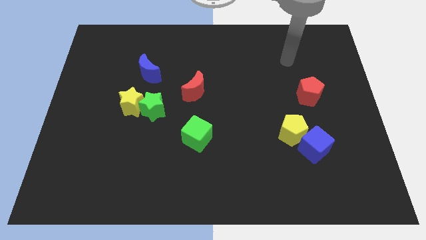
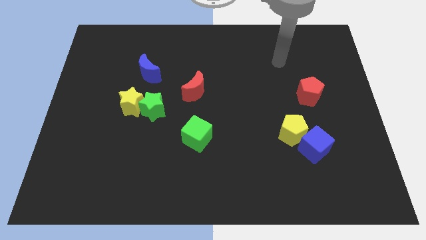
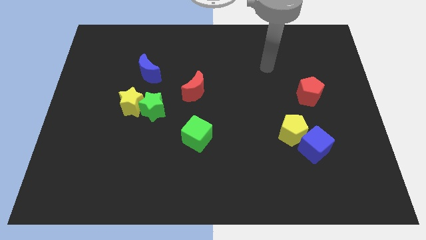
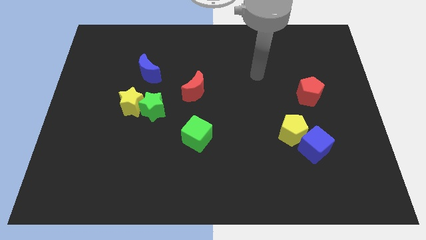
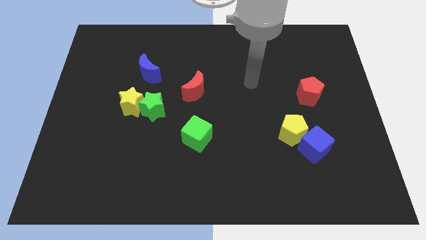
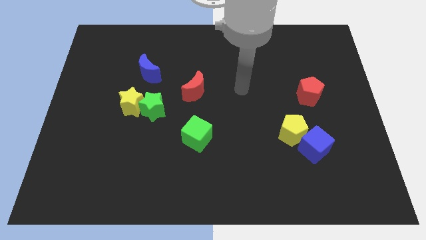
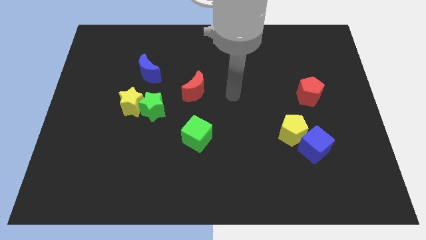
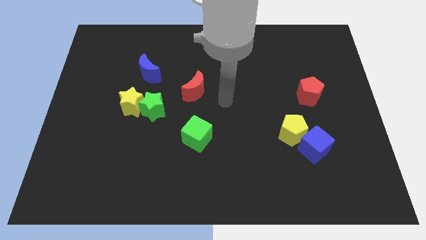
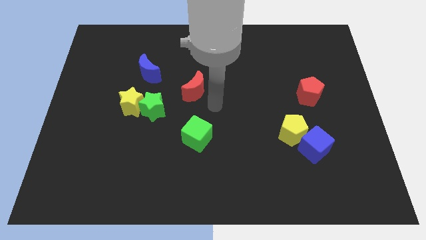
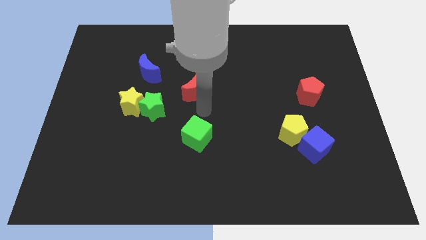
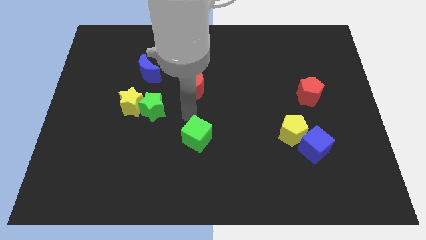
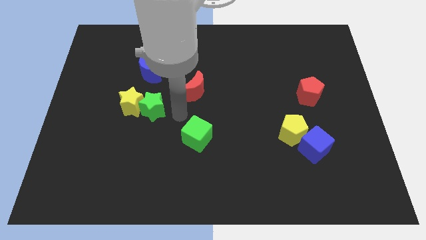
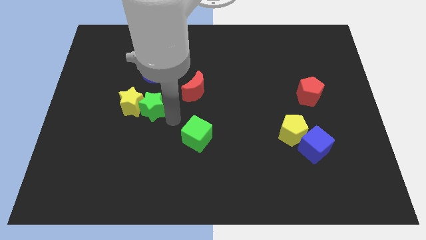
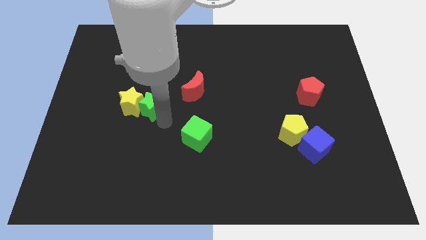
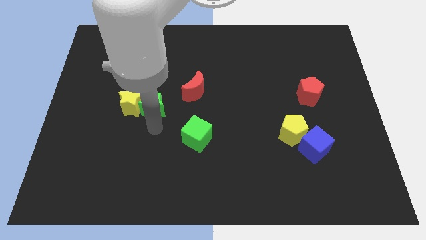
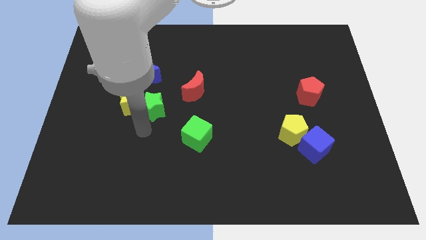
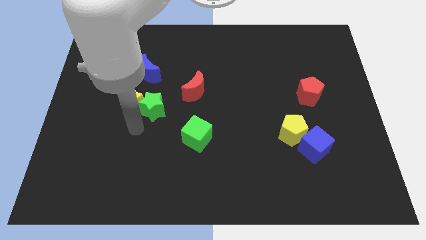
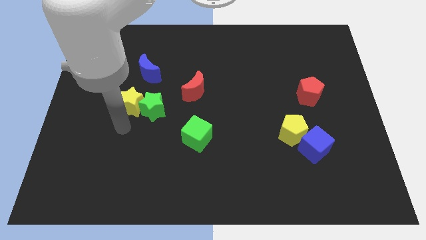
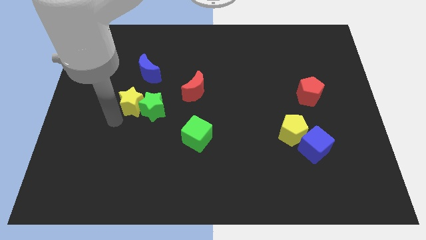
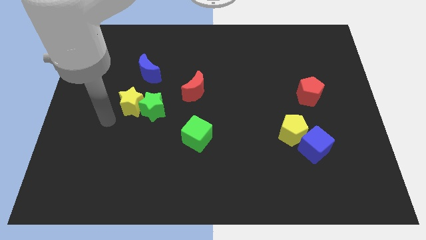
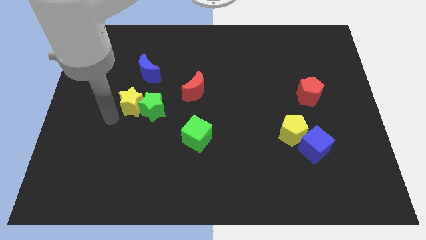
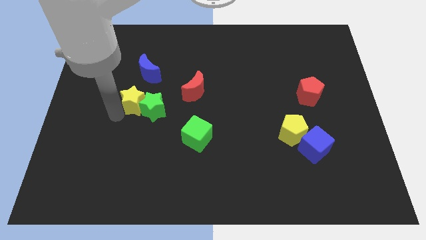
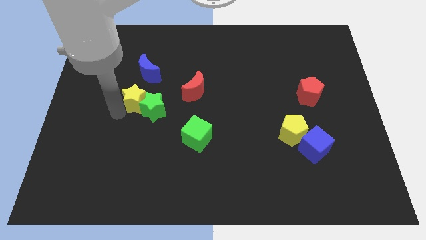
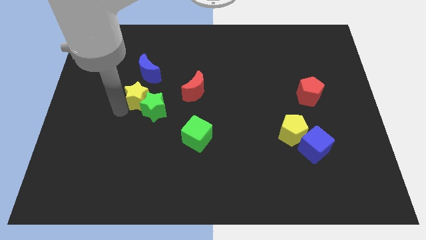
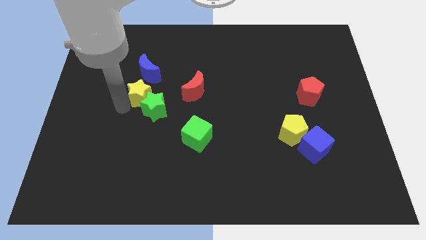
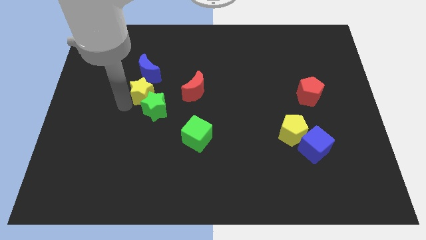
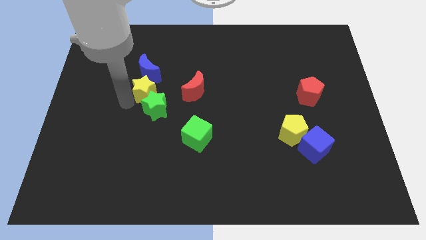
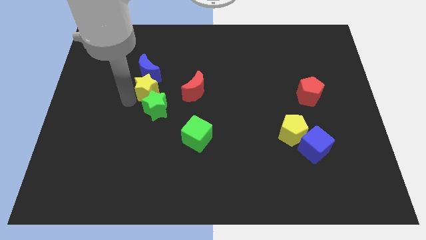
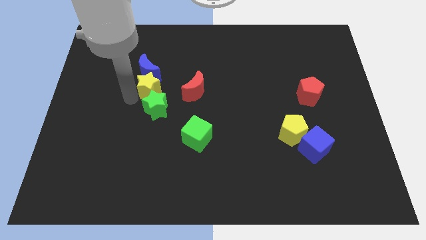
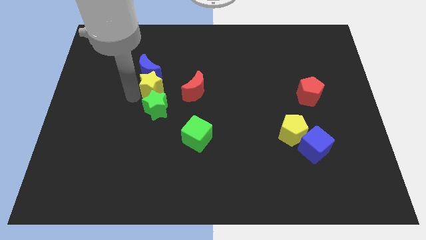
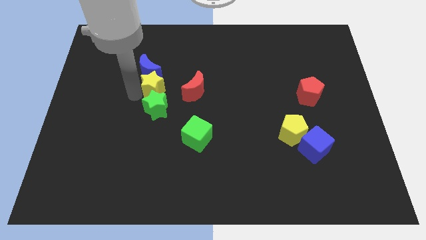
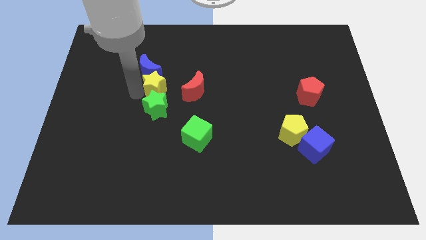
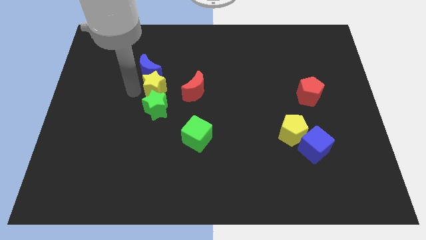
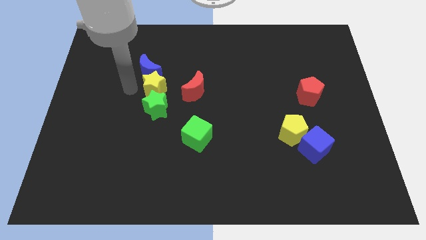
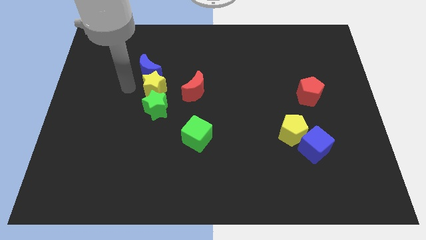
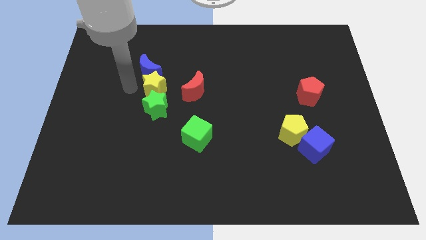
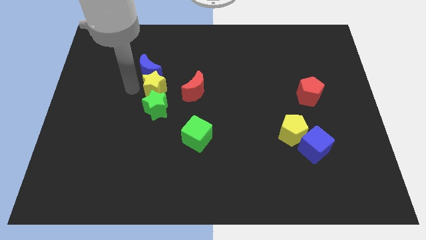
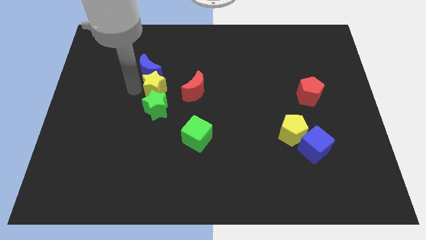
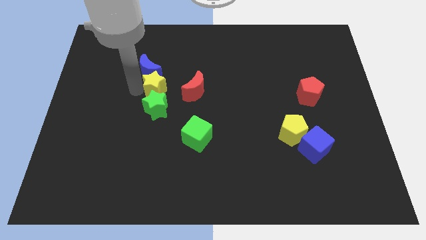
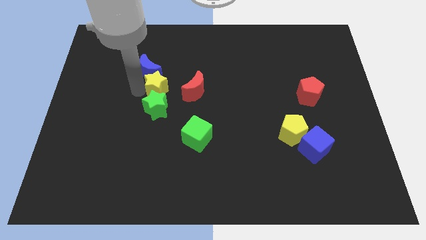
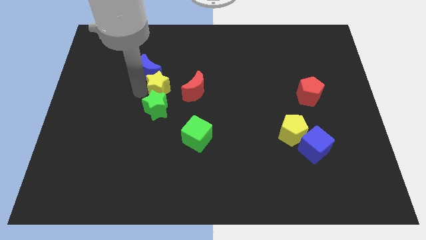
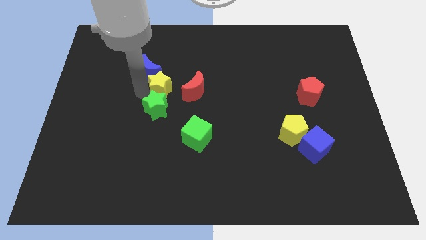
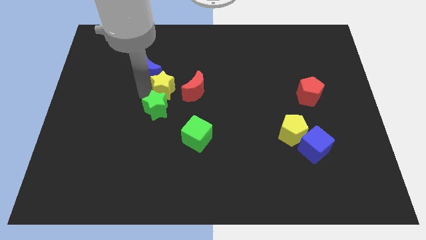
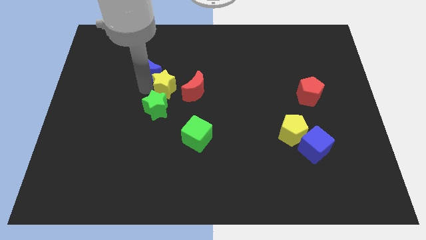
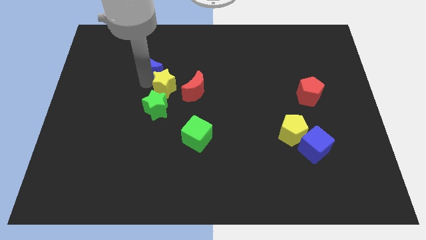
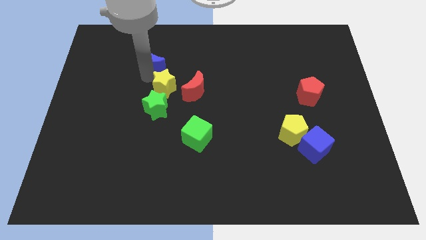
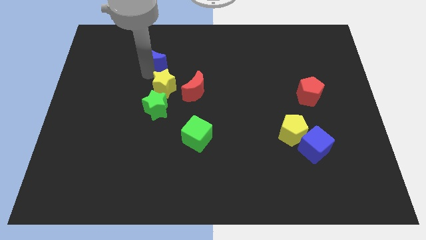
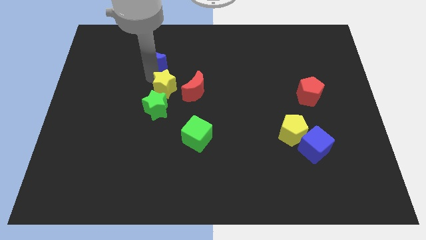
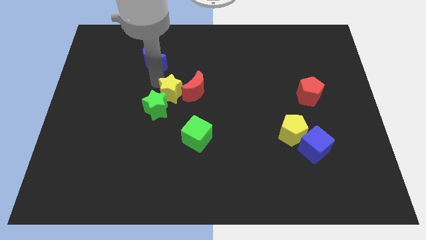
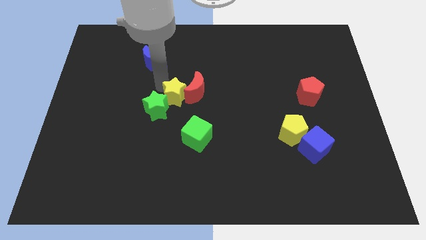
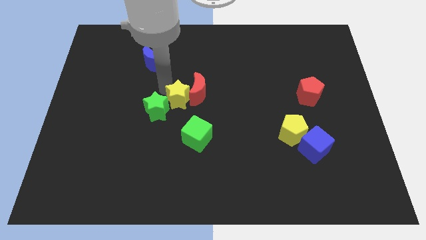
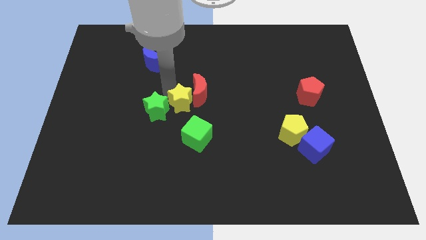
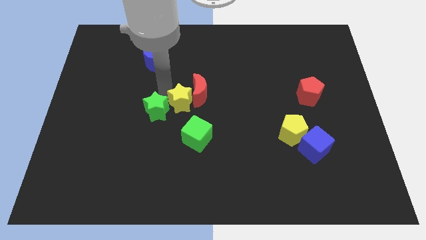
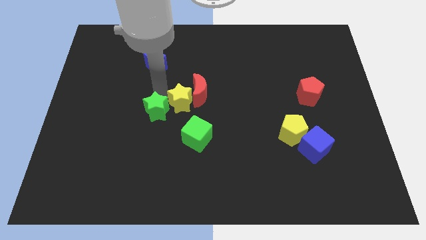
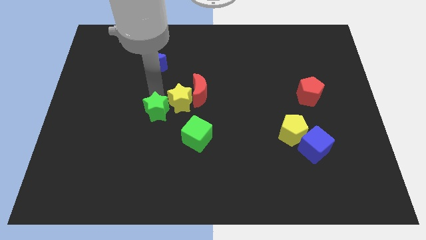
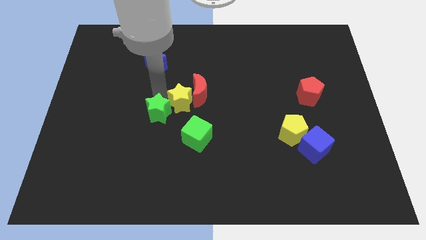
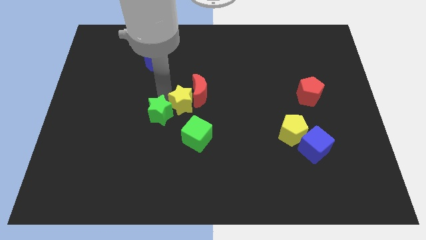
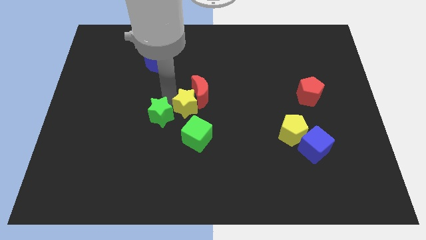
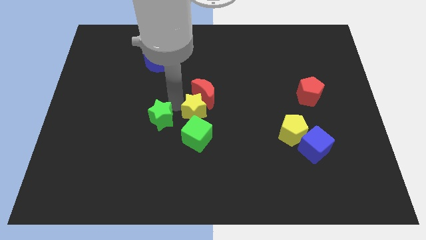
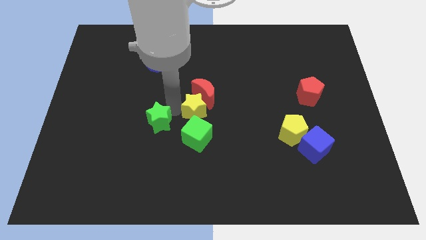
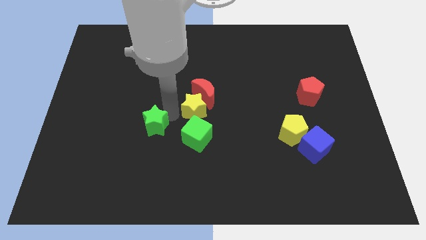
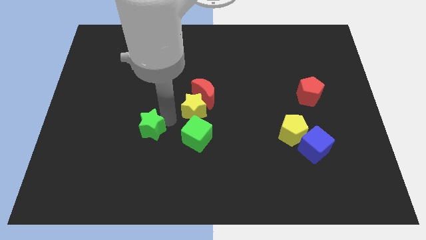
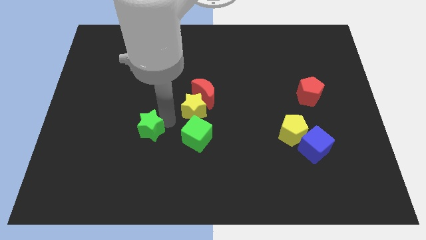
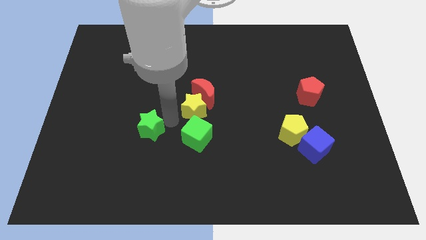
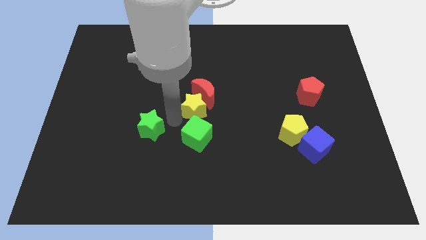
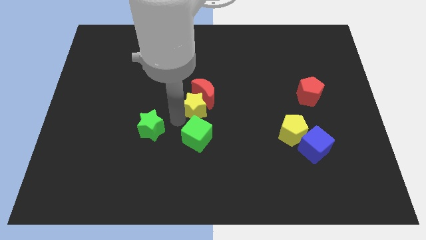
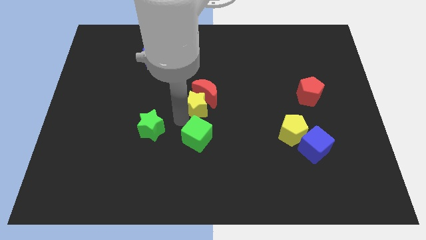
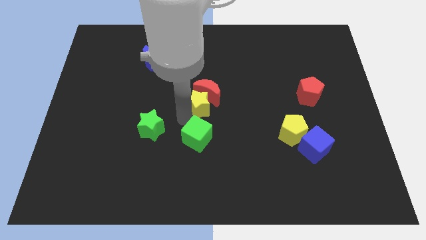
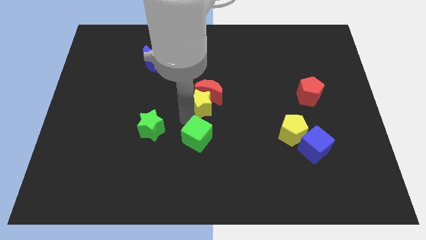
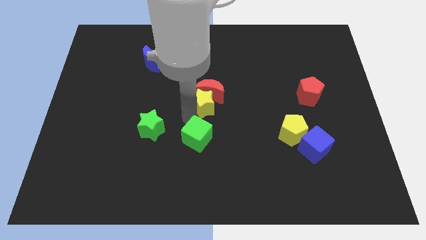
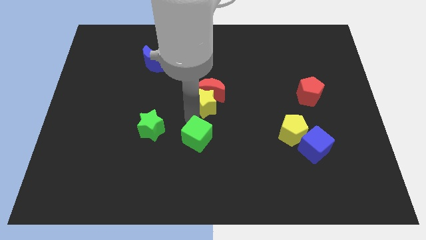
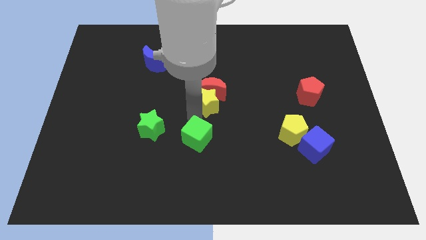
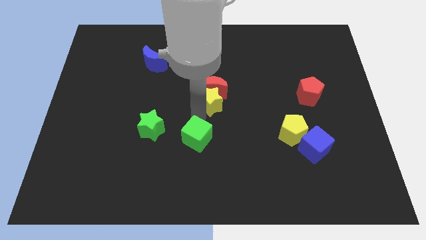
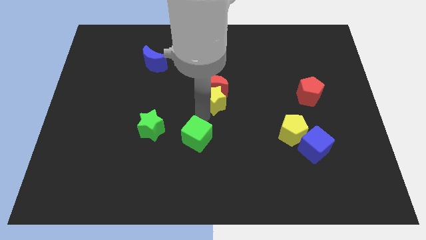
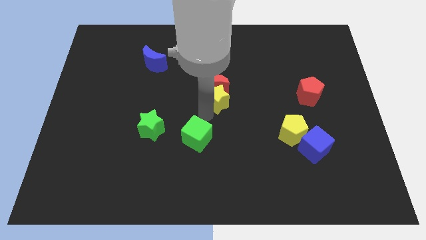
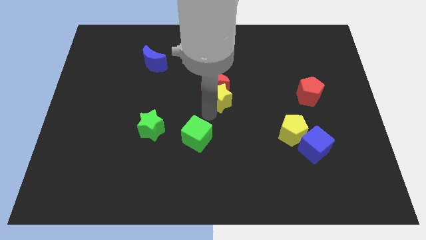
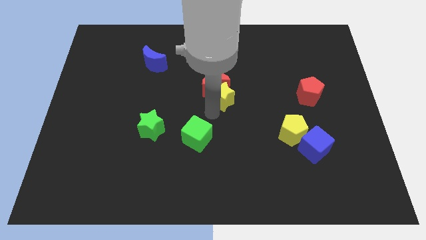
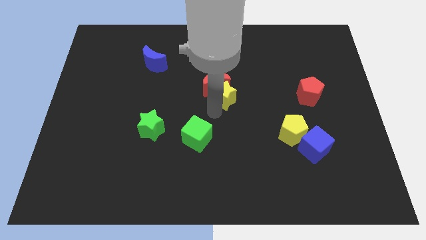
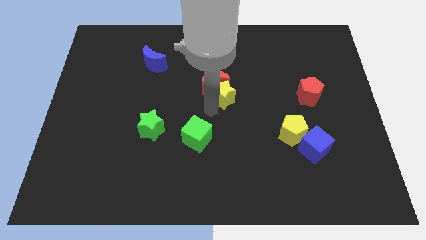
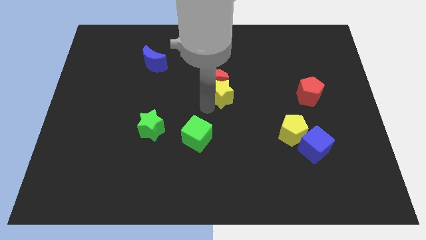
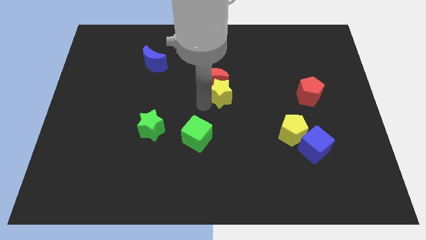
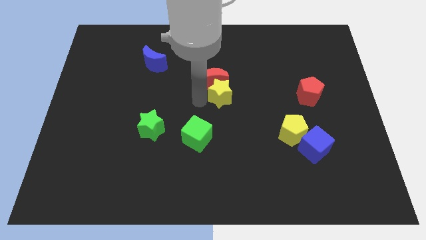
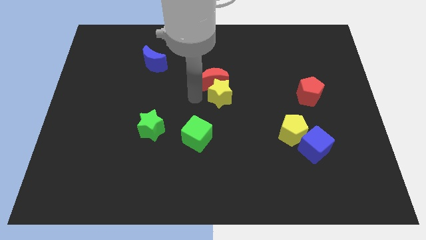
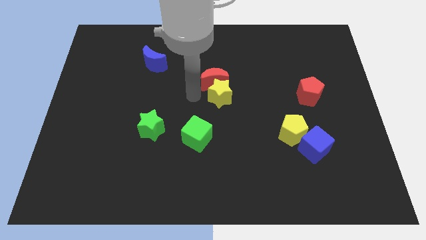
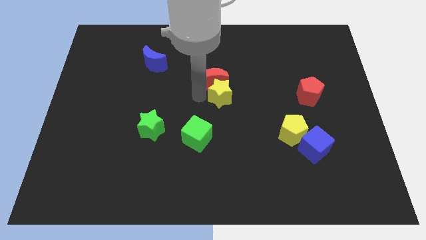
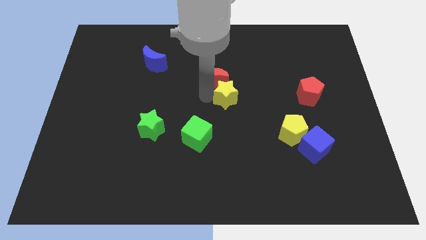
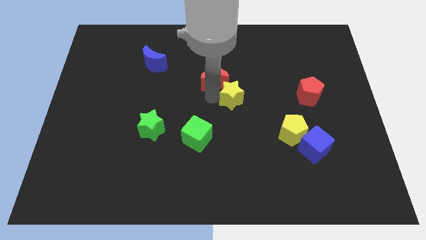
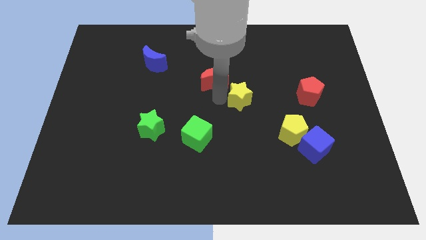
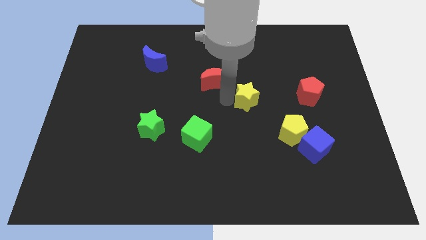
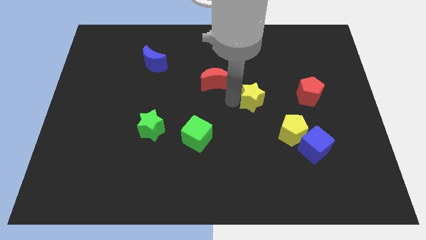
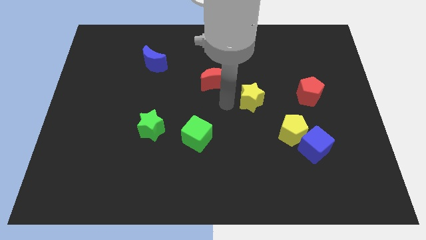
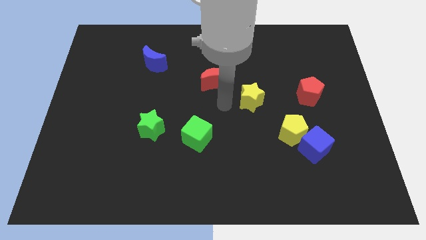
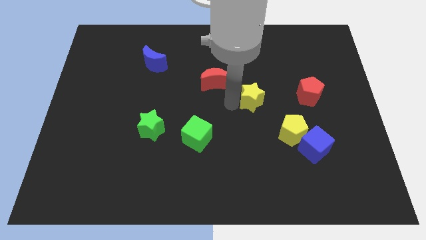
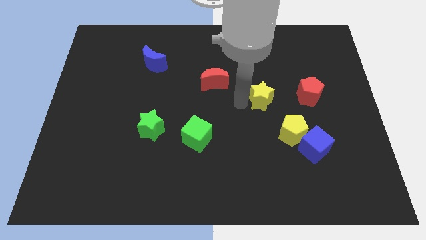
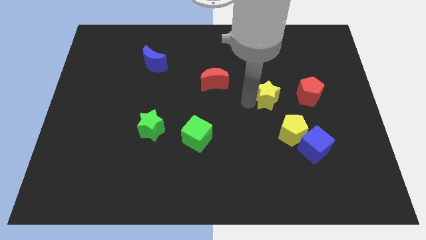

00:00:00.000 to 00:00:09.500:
move the yellow star to the top side of the yellow pentagon
